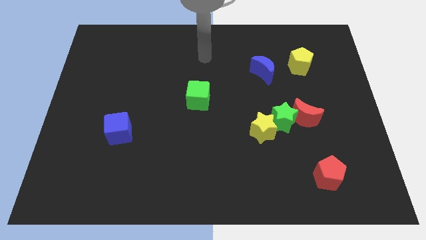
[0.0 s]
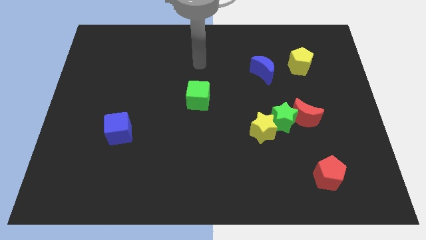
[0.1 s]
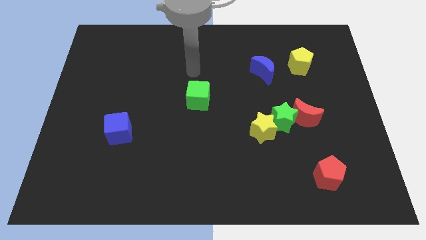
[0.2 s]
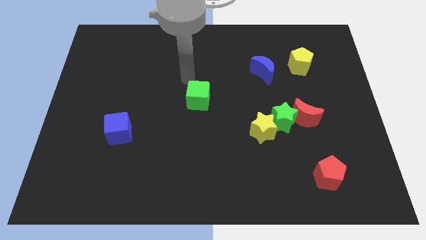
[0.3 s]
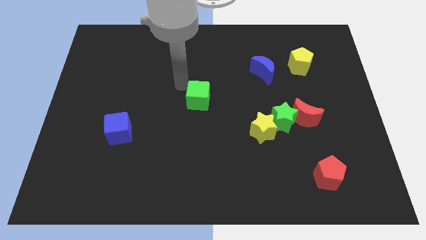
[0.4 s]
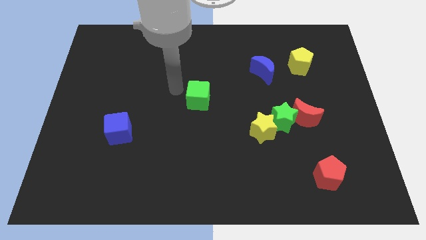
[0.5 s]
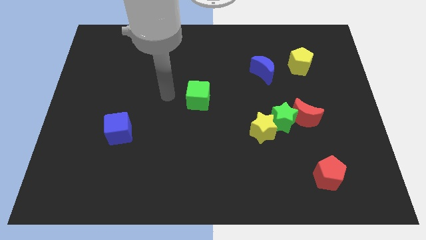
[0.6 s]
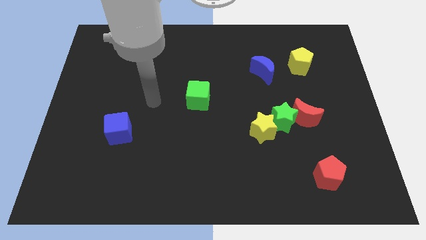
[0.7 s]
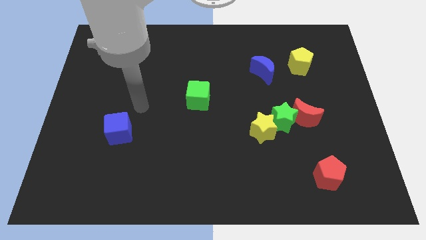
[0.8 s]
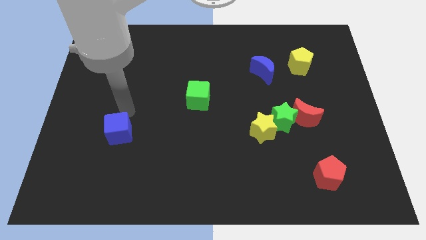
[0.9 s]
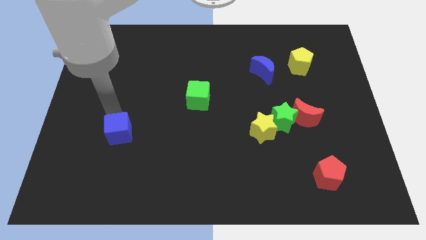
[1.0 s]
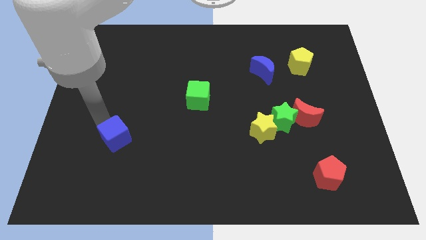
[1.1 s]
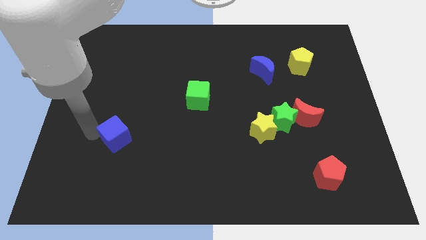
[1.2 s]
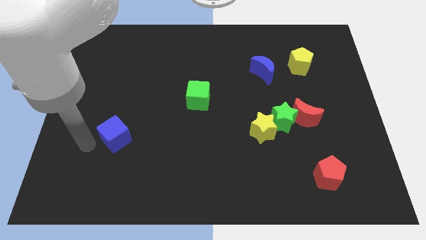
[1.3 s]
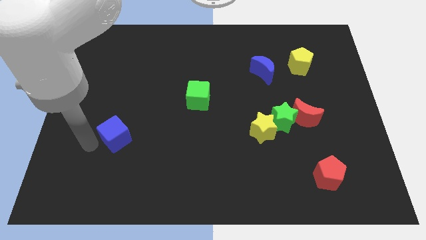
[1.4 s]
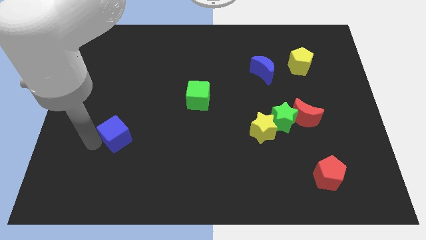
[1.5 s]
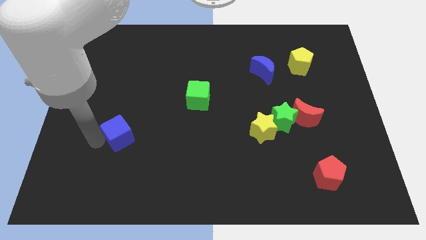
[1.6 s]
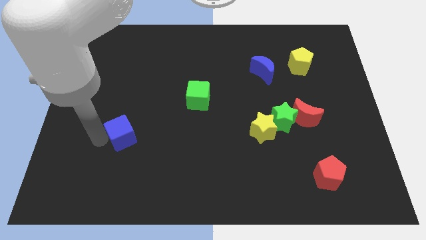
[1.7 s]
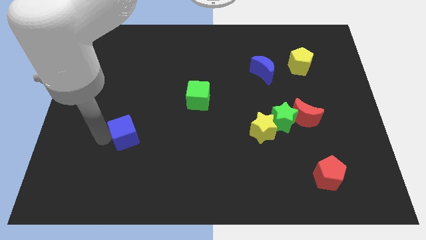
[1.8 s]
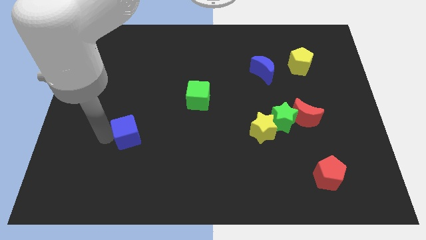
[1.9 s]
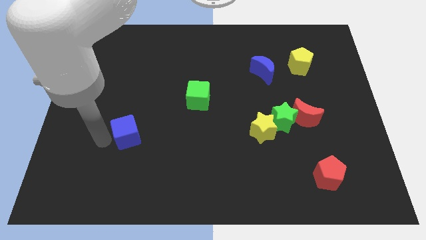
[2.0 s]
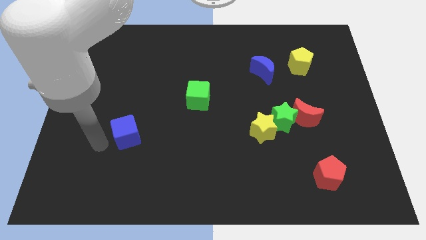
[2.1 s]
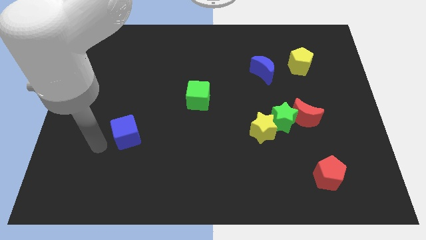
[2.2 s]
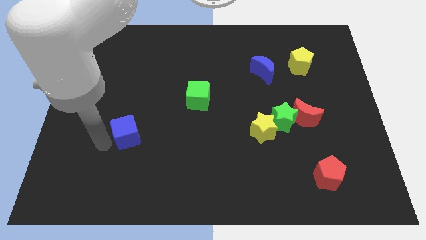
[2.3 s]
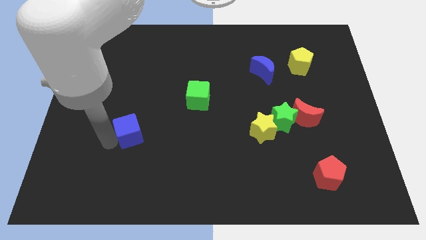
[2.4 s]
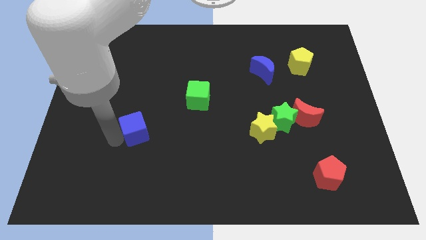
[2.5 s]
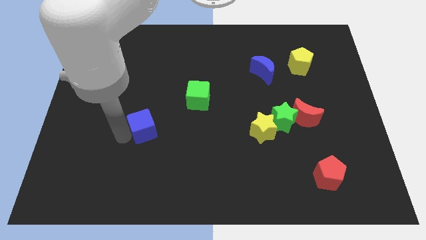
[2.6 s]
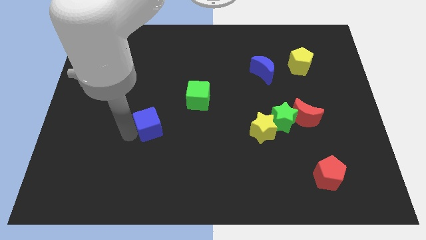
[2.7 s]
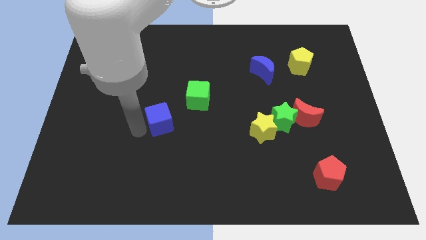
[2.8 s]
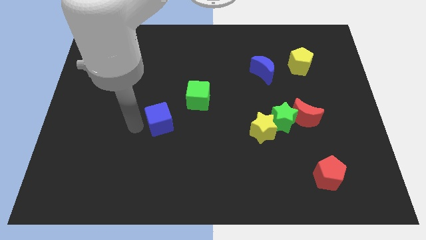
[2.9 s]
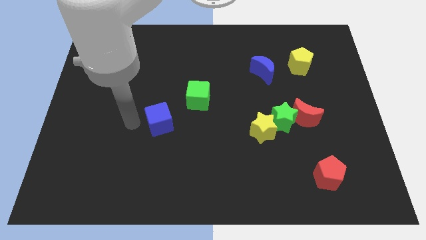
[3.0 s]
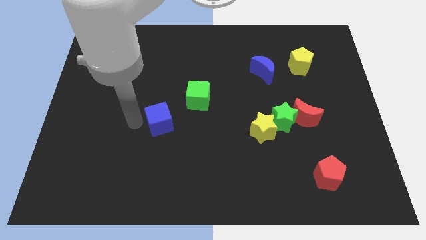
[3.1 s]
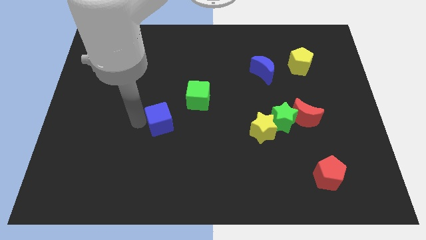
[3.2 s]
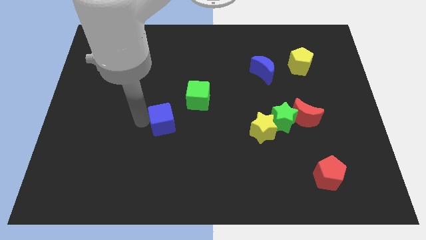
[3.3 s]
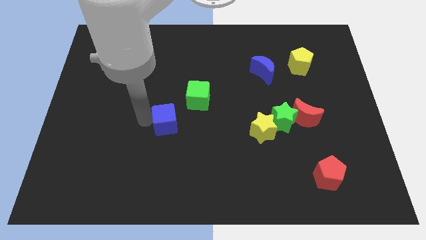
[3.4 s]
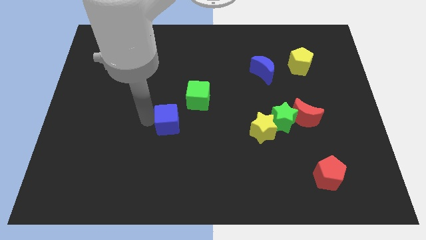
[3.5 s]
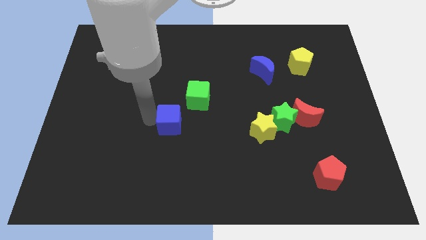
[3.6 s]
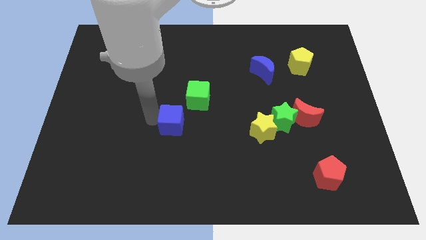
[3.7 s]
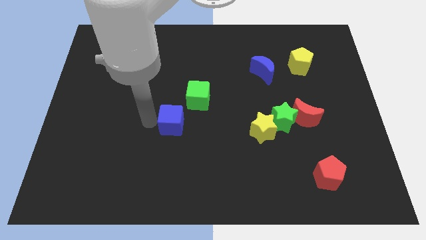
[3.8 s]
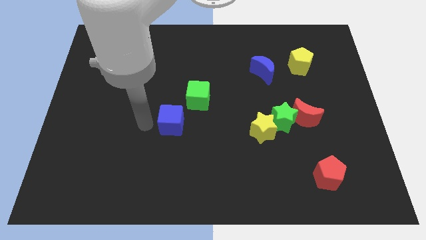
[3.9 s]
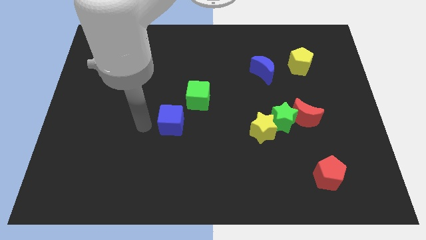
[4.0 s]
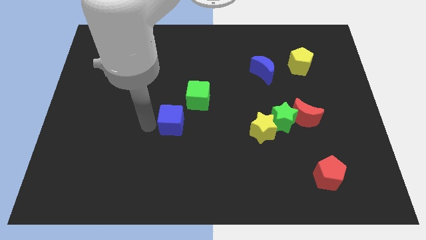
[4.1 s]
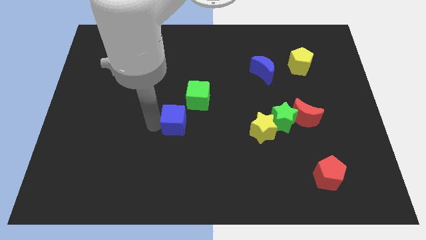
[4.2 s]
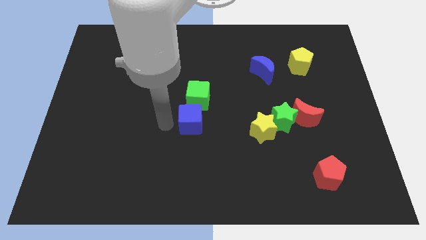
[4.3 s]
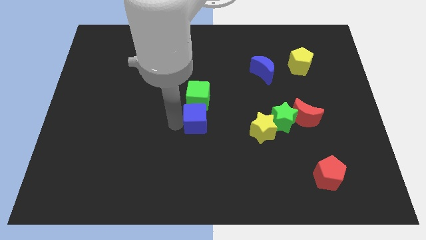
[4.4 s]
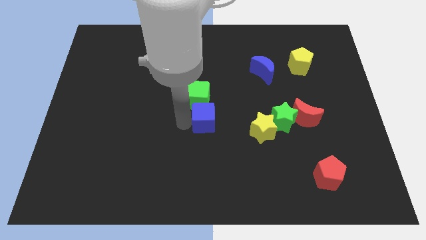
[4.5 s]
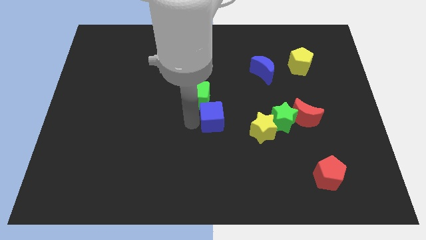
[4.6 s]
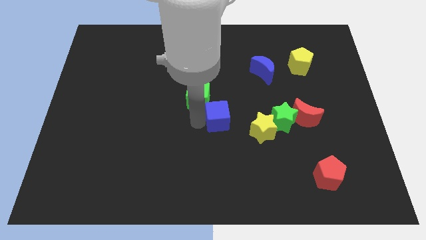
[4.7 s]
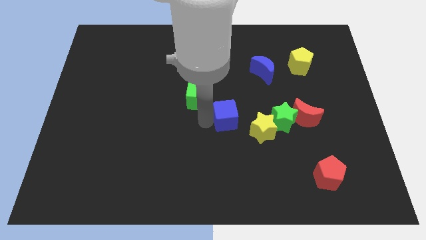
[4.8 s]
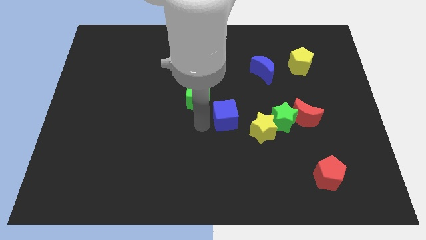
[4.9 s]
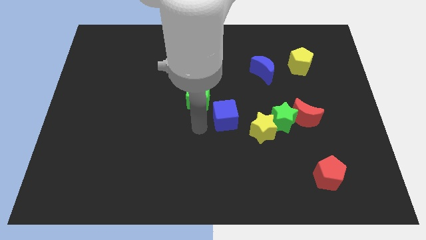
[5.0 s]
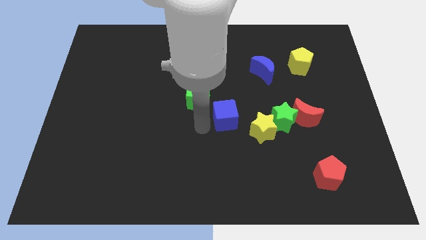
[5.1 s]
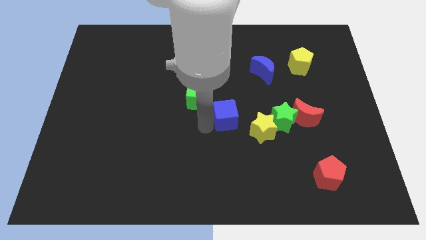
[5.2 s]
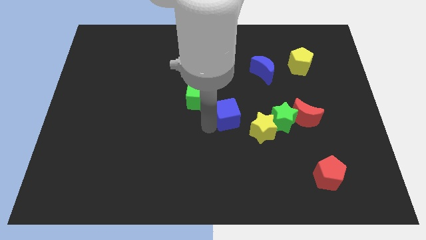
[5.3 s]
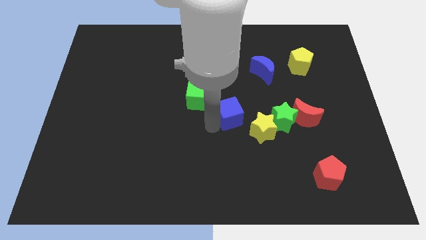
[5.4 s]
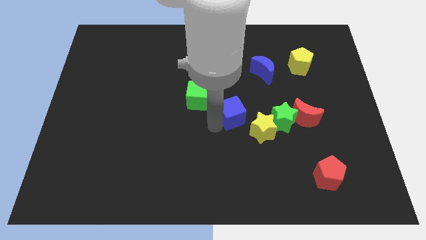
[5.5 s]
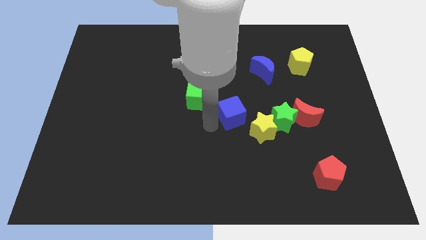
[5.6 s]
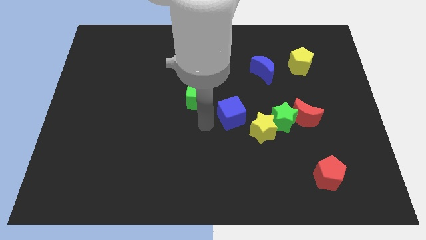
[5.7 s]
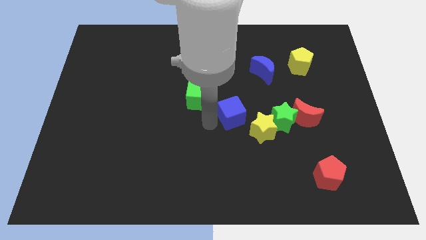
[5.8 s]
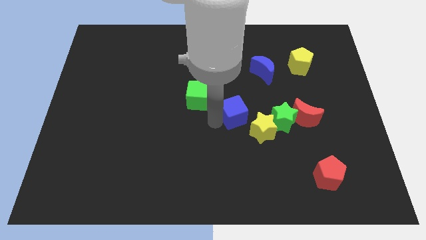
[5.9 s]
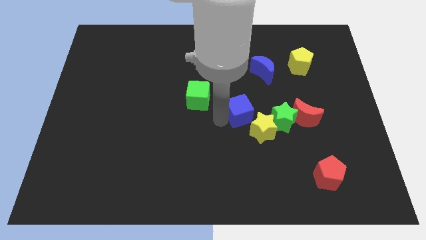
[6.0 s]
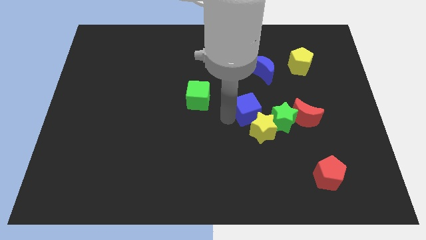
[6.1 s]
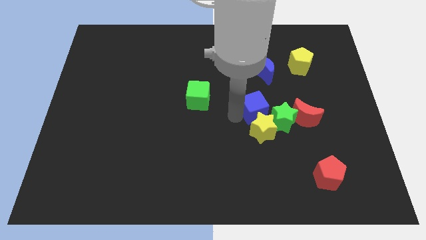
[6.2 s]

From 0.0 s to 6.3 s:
move the blue cube to the bottom side of the blue moon

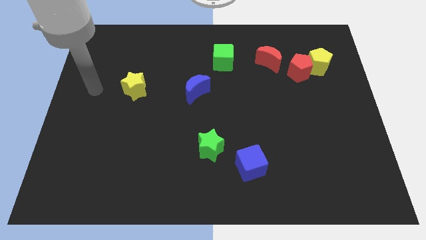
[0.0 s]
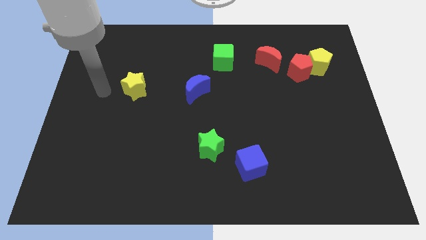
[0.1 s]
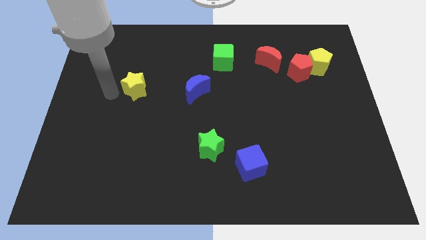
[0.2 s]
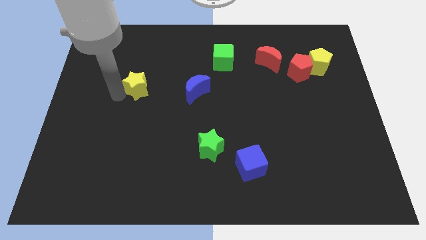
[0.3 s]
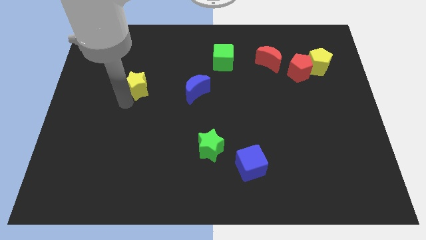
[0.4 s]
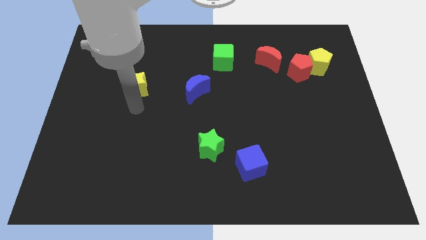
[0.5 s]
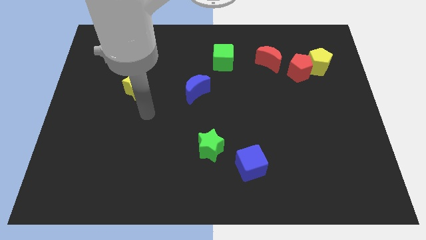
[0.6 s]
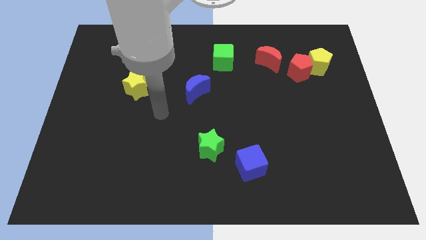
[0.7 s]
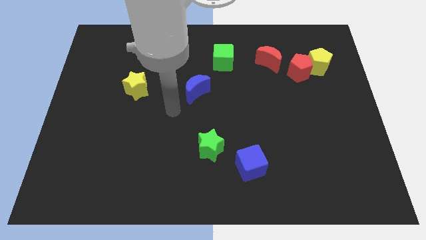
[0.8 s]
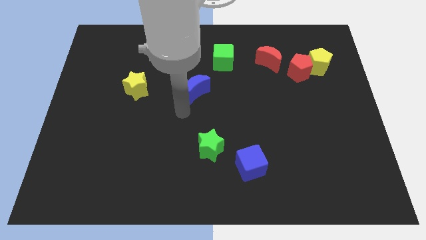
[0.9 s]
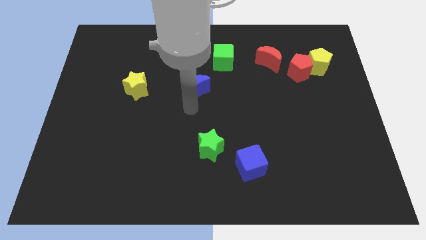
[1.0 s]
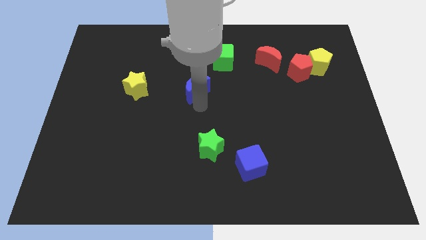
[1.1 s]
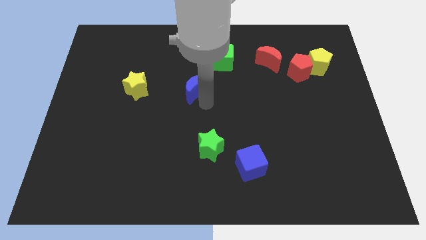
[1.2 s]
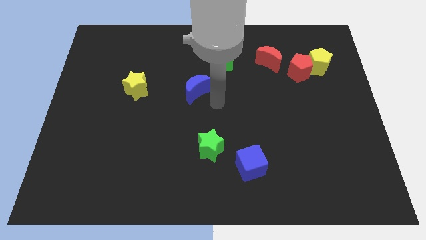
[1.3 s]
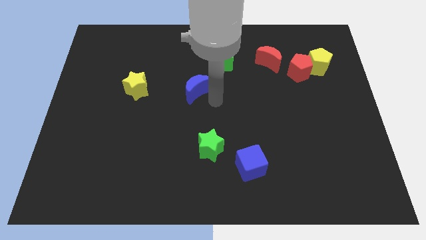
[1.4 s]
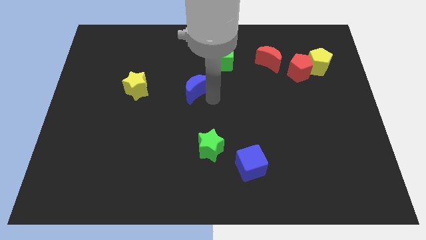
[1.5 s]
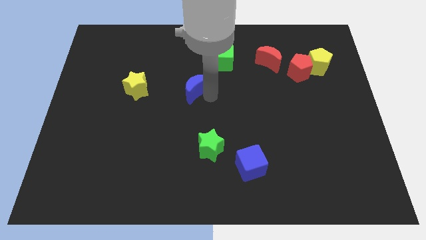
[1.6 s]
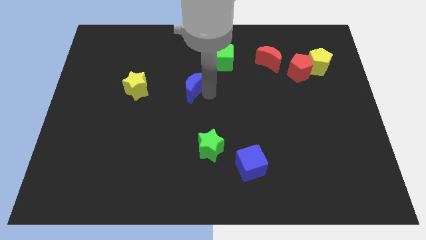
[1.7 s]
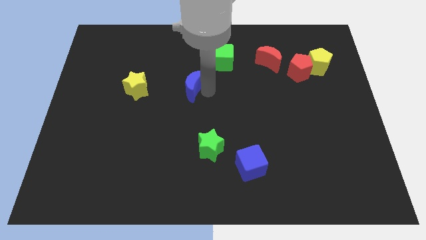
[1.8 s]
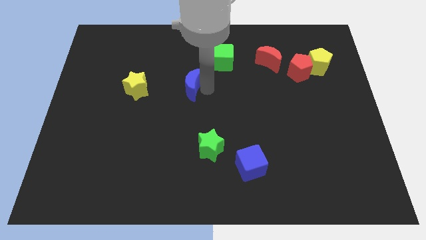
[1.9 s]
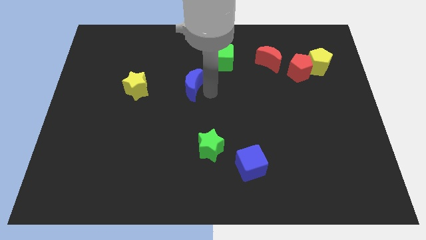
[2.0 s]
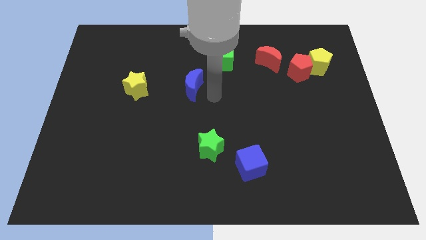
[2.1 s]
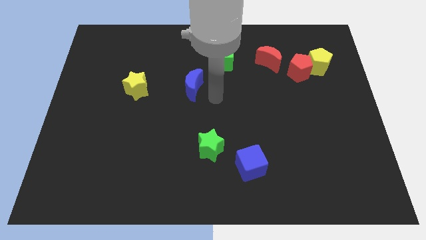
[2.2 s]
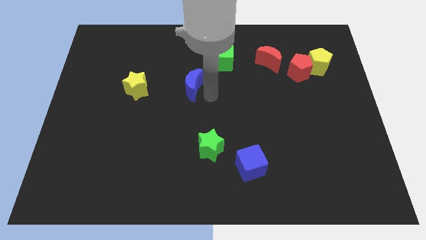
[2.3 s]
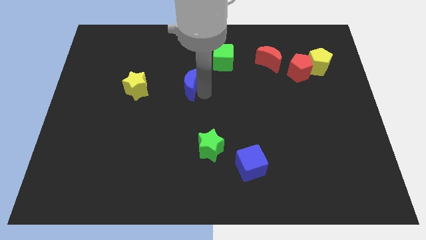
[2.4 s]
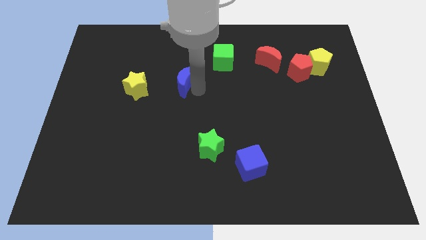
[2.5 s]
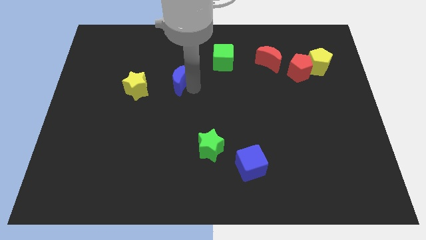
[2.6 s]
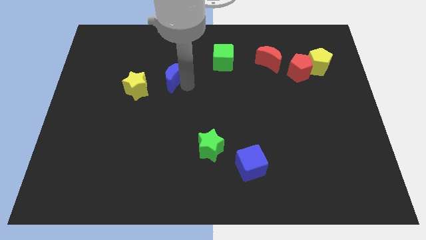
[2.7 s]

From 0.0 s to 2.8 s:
push the blue moon to the top right side of the yellow star
